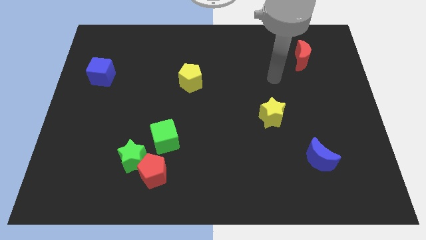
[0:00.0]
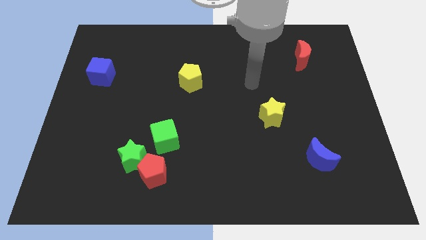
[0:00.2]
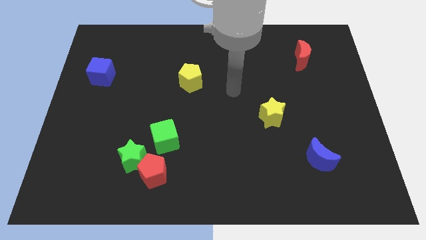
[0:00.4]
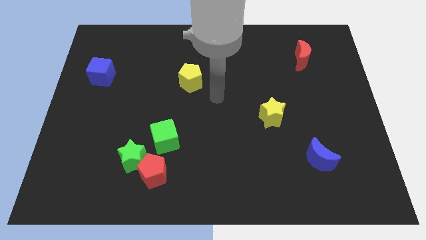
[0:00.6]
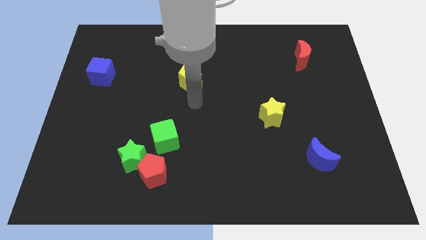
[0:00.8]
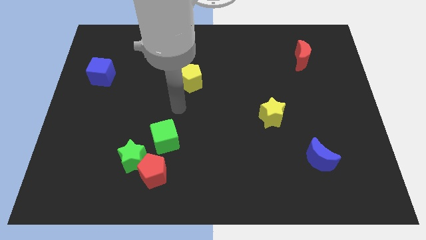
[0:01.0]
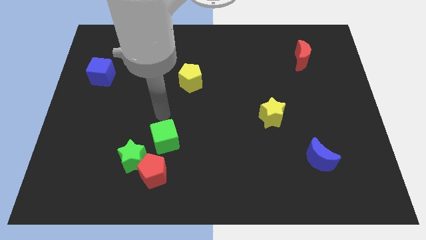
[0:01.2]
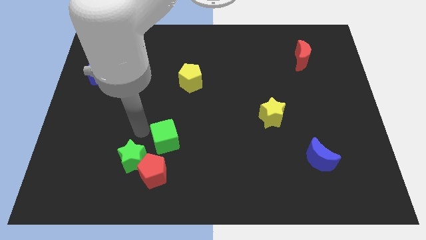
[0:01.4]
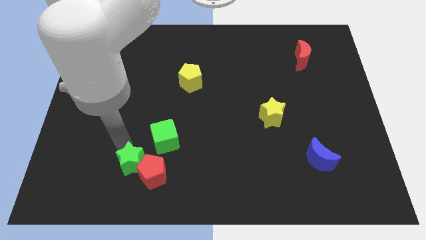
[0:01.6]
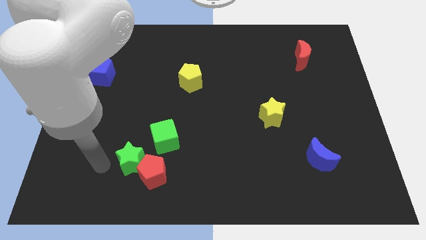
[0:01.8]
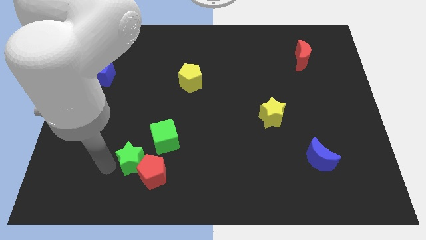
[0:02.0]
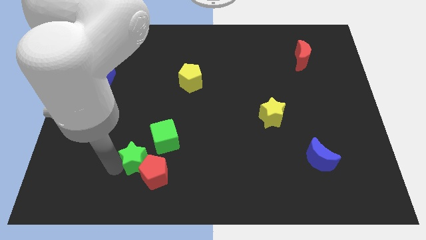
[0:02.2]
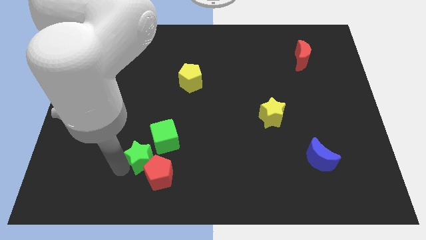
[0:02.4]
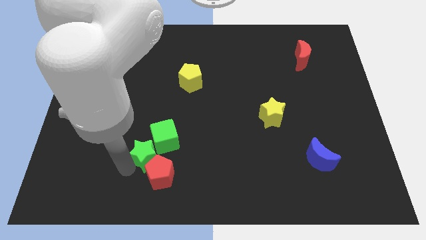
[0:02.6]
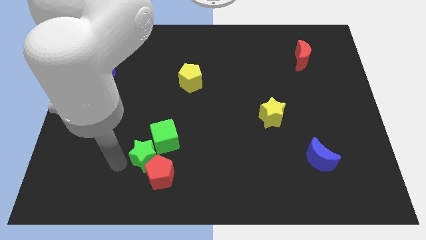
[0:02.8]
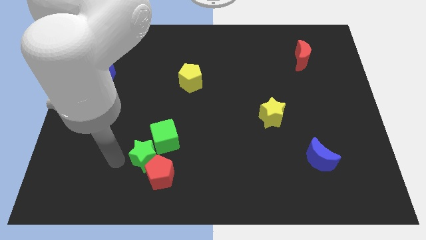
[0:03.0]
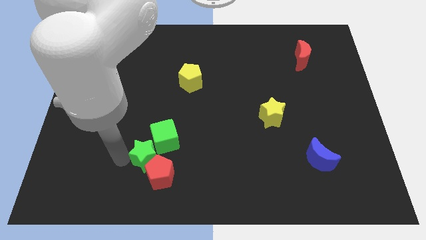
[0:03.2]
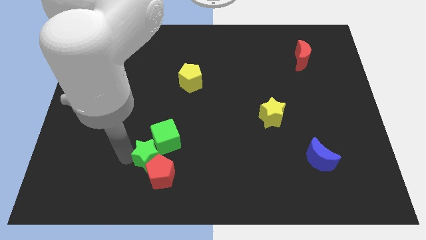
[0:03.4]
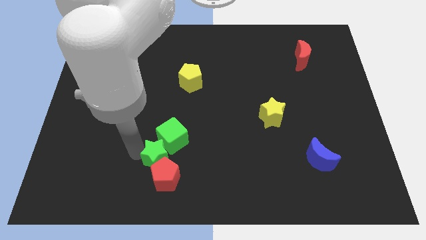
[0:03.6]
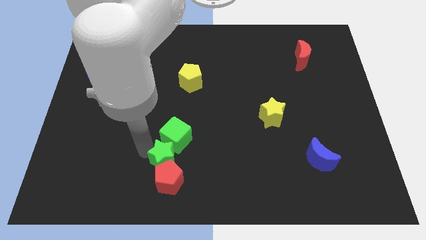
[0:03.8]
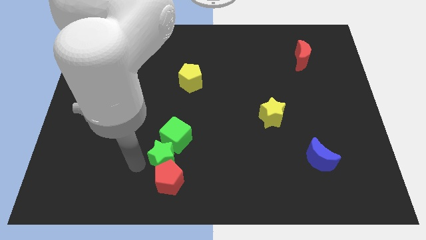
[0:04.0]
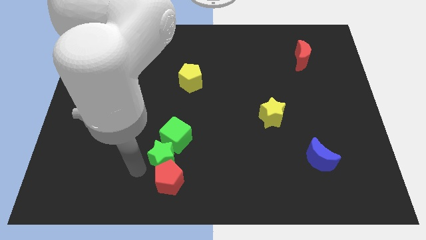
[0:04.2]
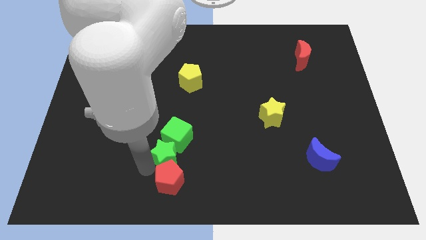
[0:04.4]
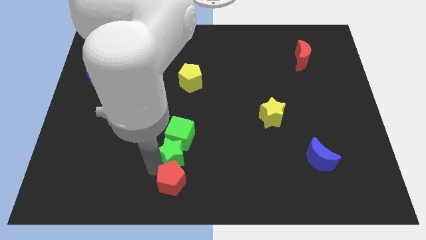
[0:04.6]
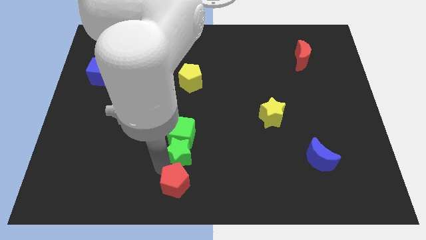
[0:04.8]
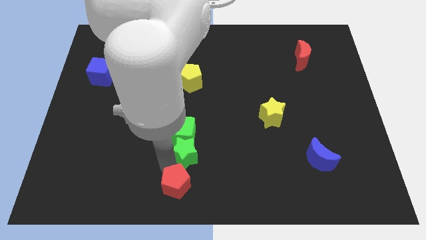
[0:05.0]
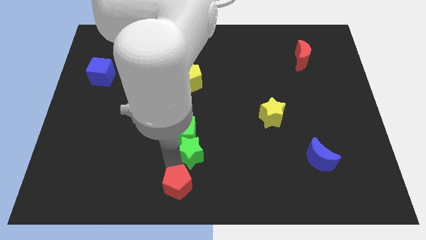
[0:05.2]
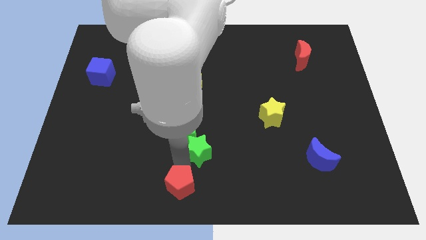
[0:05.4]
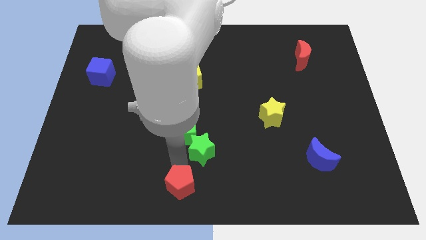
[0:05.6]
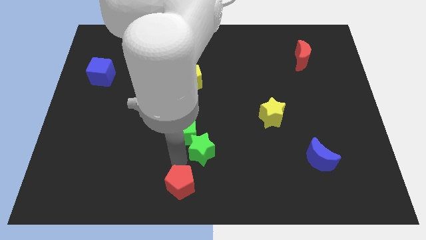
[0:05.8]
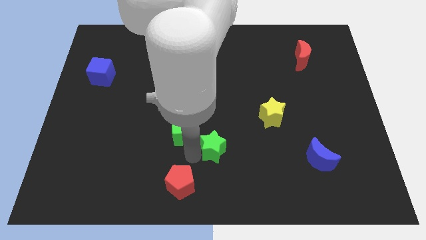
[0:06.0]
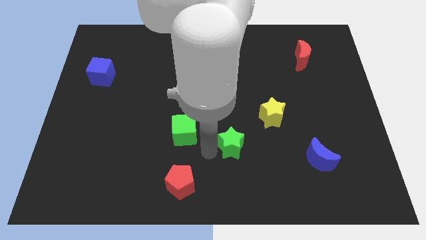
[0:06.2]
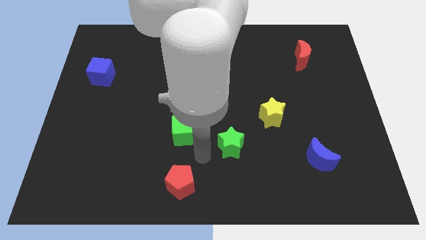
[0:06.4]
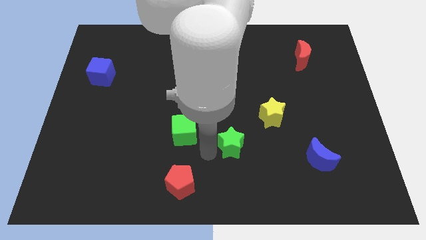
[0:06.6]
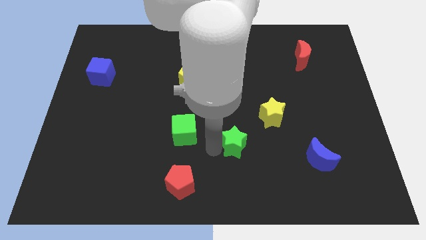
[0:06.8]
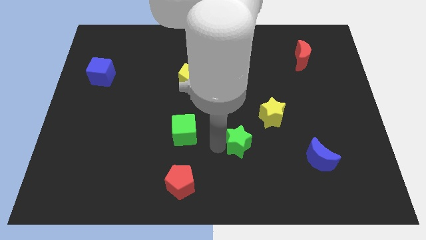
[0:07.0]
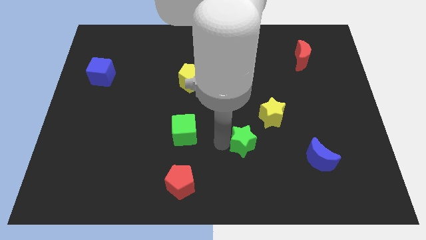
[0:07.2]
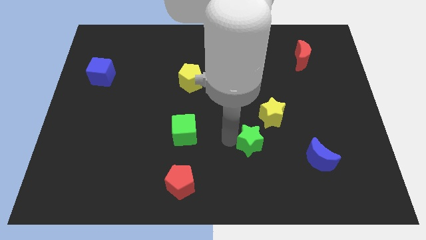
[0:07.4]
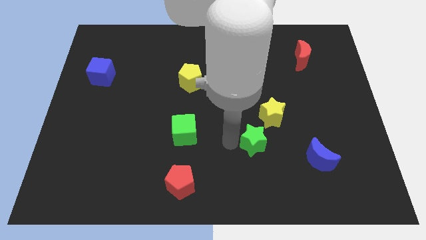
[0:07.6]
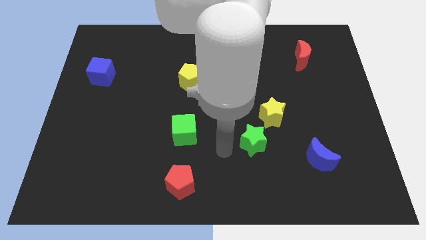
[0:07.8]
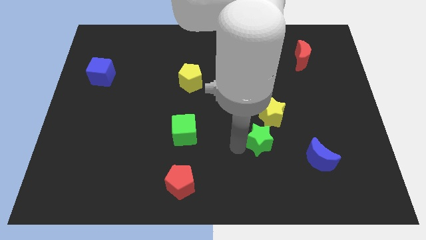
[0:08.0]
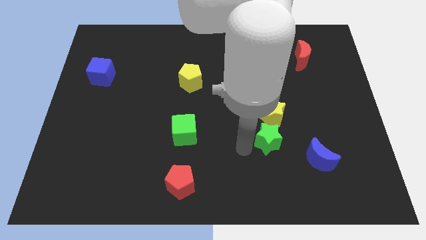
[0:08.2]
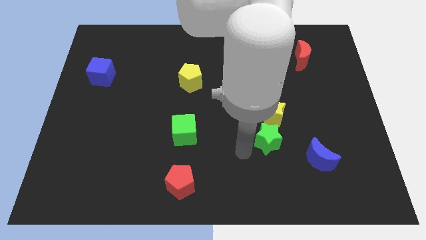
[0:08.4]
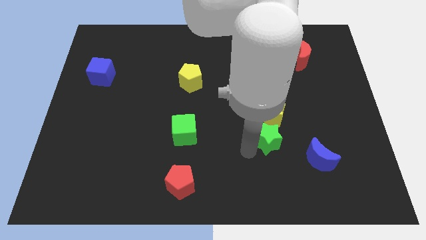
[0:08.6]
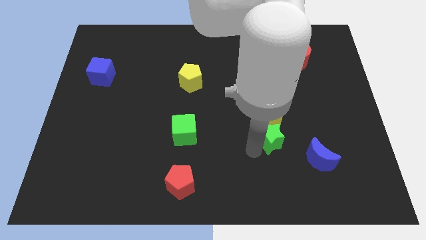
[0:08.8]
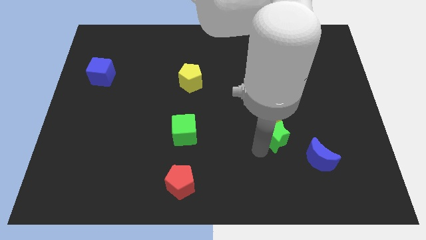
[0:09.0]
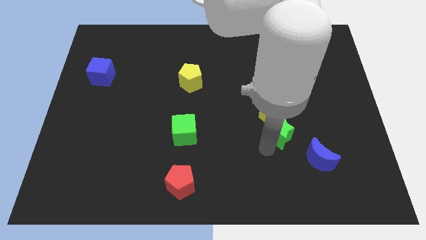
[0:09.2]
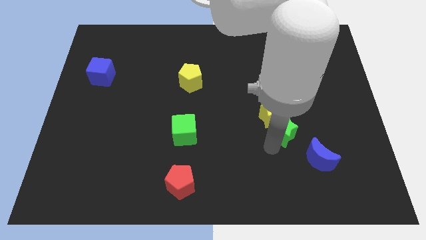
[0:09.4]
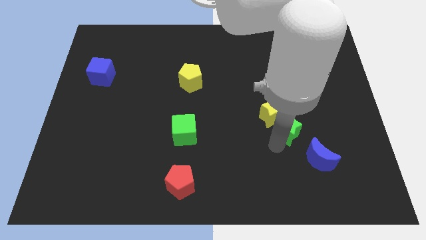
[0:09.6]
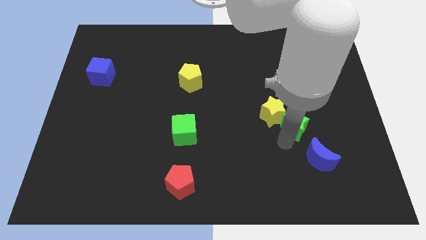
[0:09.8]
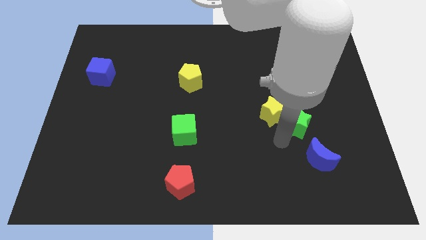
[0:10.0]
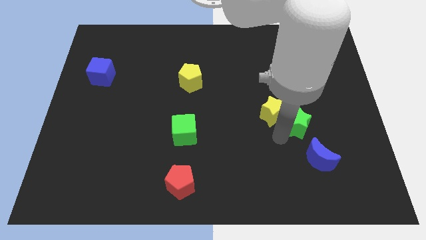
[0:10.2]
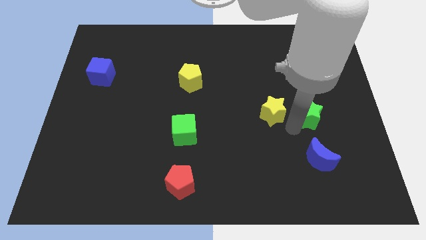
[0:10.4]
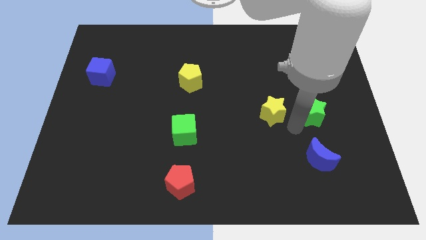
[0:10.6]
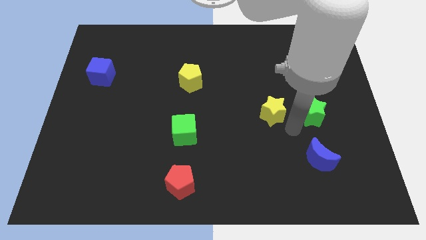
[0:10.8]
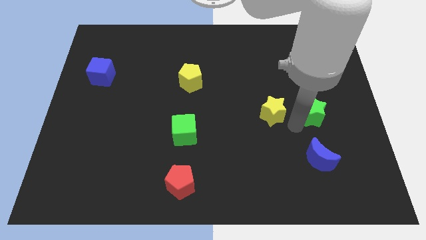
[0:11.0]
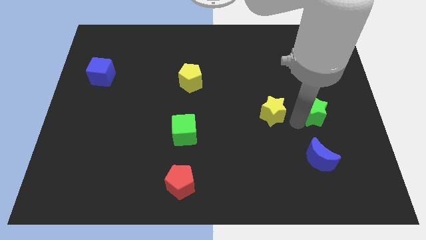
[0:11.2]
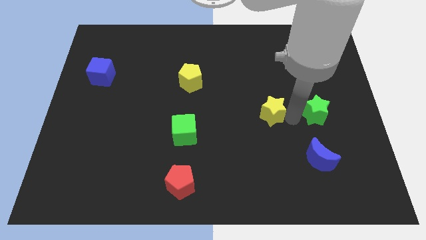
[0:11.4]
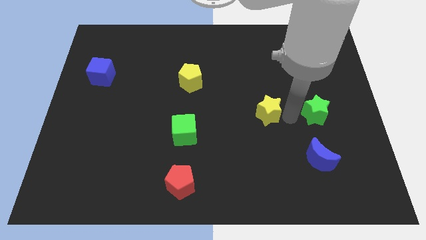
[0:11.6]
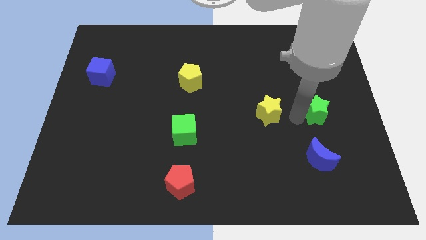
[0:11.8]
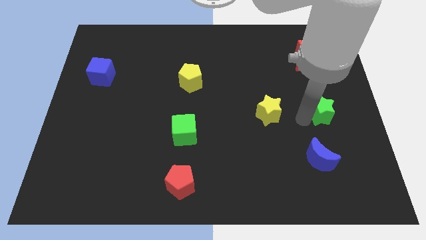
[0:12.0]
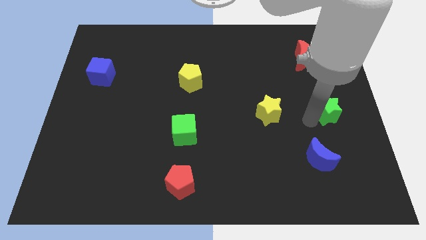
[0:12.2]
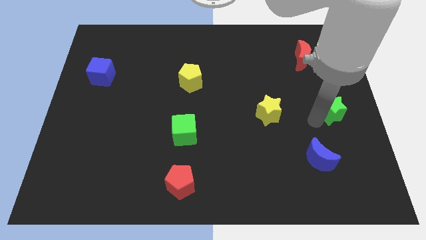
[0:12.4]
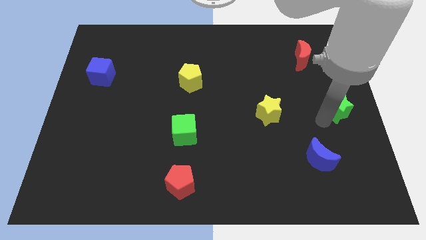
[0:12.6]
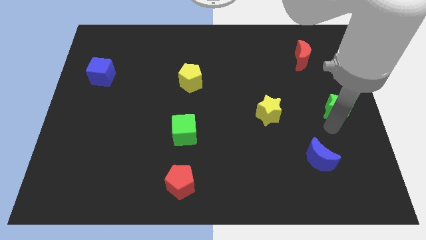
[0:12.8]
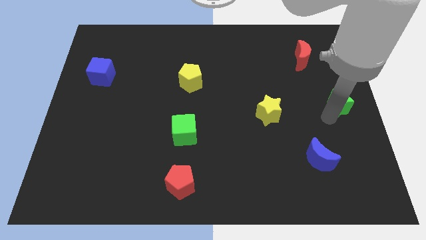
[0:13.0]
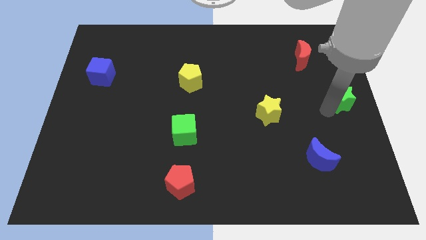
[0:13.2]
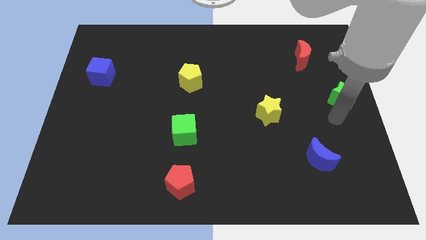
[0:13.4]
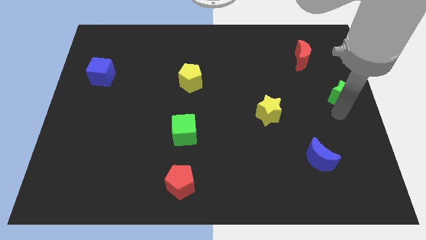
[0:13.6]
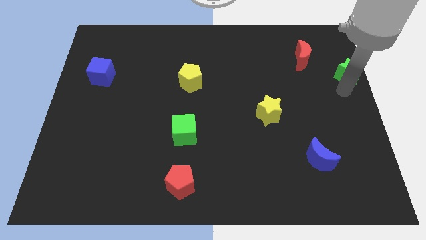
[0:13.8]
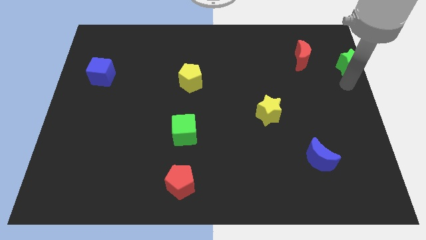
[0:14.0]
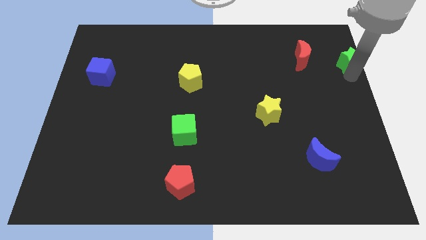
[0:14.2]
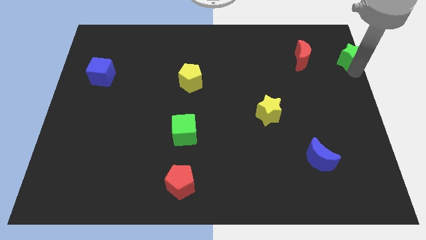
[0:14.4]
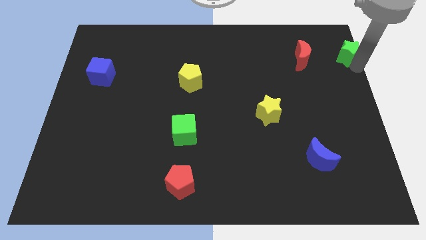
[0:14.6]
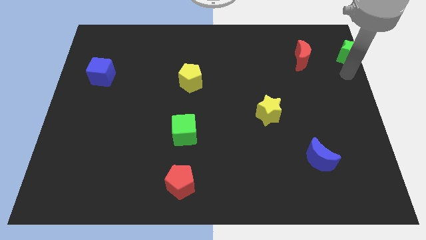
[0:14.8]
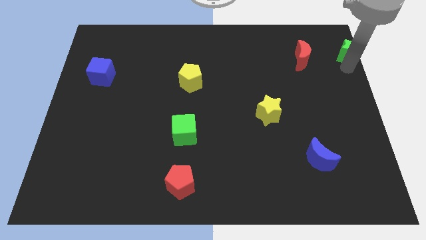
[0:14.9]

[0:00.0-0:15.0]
slide the green star to the upper right corner

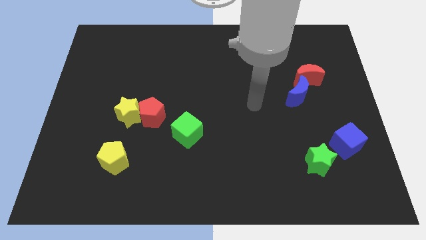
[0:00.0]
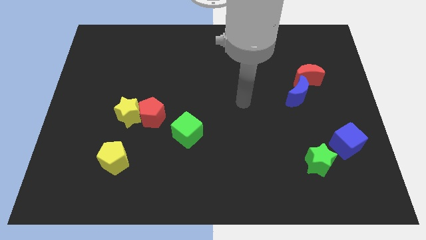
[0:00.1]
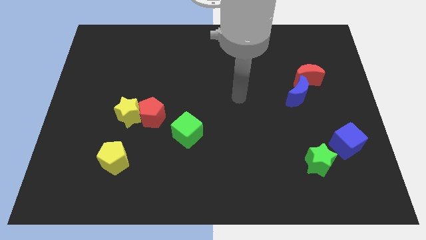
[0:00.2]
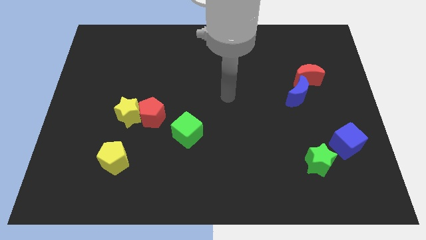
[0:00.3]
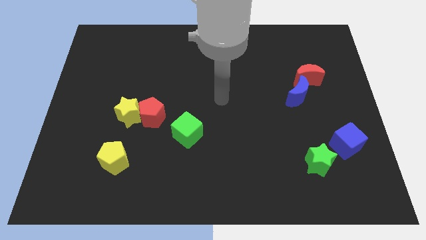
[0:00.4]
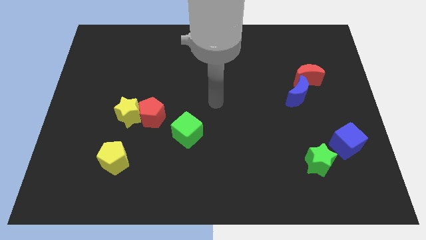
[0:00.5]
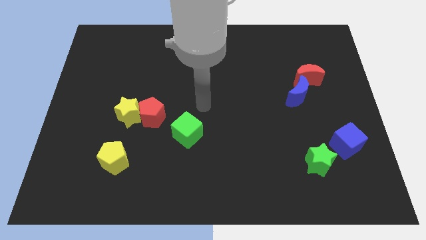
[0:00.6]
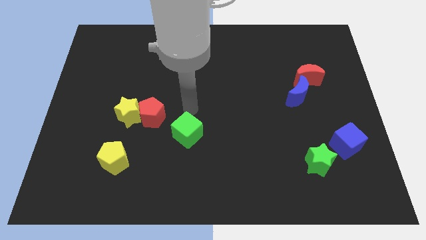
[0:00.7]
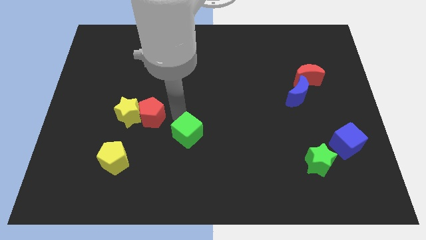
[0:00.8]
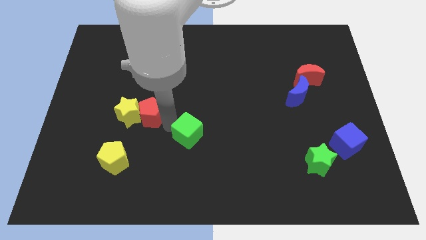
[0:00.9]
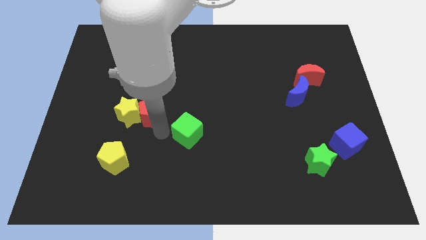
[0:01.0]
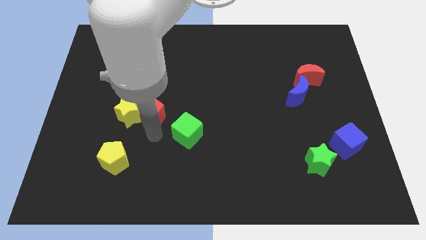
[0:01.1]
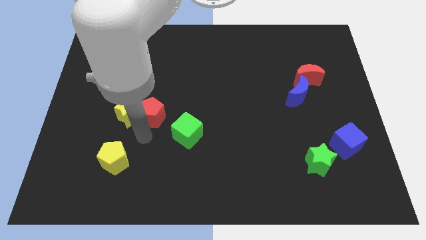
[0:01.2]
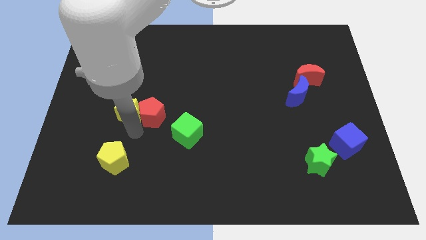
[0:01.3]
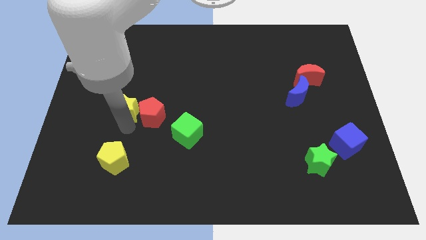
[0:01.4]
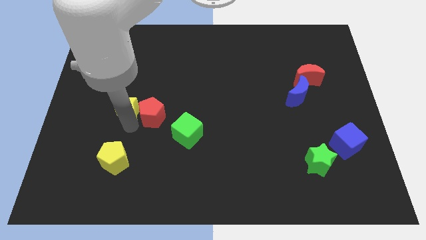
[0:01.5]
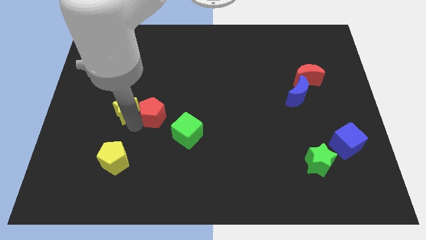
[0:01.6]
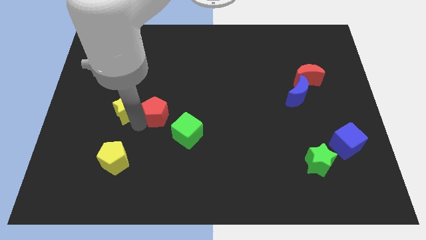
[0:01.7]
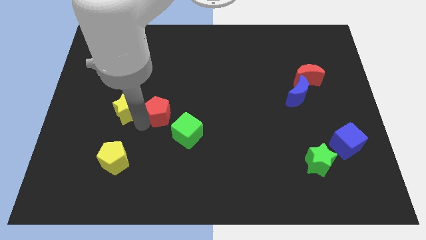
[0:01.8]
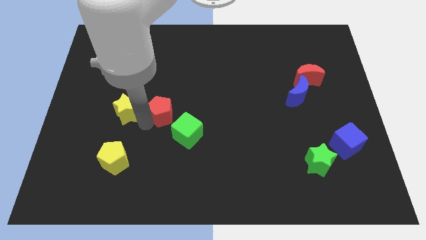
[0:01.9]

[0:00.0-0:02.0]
move the red pentagon to the center
